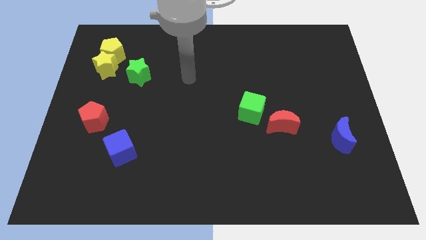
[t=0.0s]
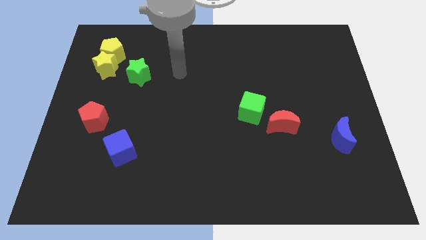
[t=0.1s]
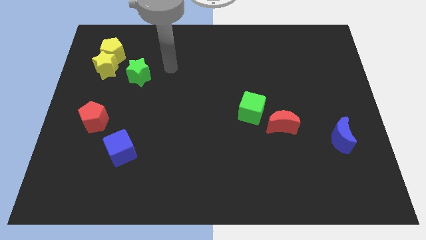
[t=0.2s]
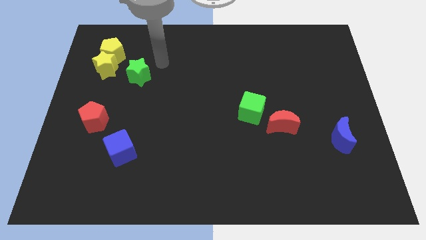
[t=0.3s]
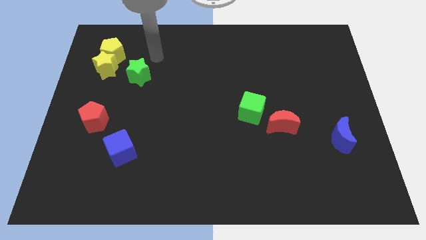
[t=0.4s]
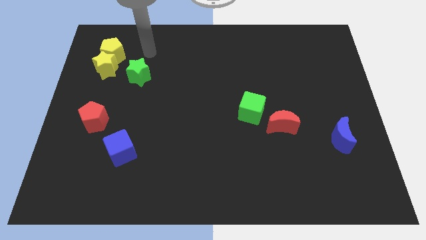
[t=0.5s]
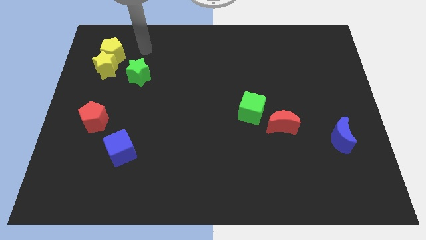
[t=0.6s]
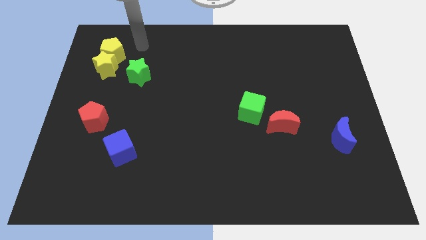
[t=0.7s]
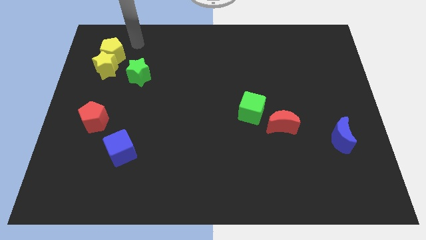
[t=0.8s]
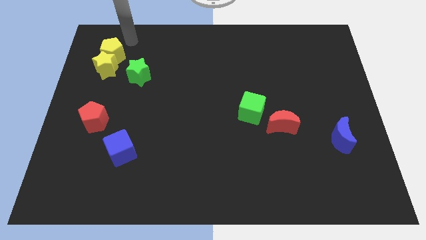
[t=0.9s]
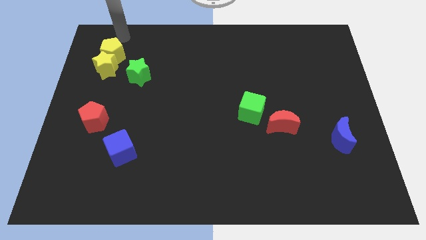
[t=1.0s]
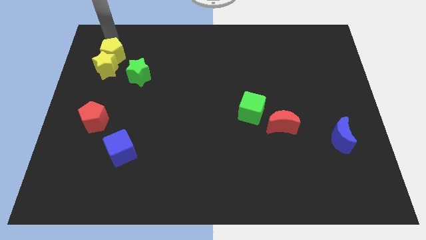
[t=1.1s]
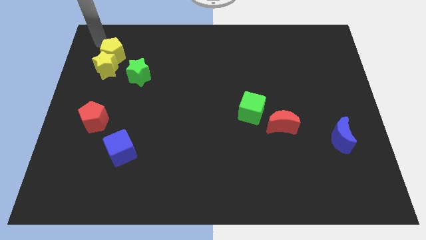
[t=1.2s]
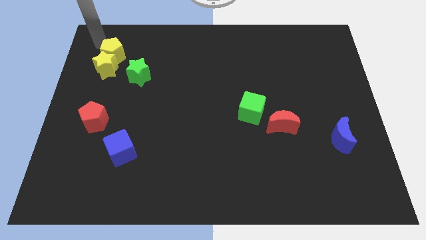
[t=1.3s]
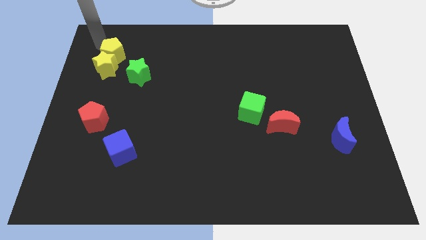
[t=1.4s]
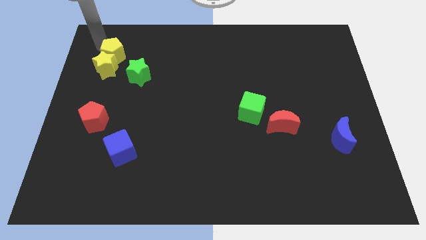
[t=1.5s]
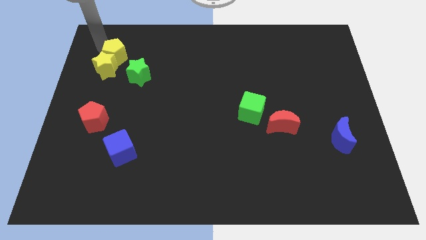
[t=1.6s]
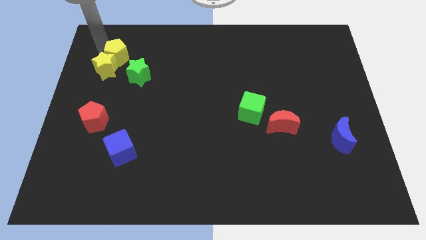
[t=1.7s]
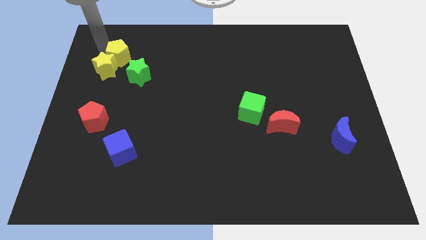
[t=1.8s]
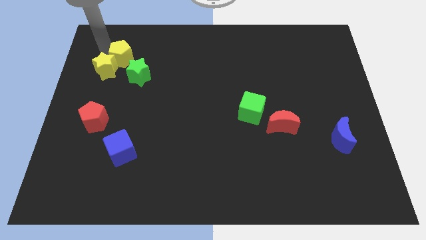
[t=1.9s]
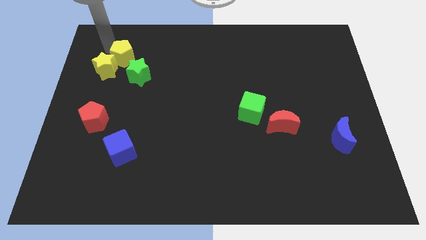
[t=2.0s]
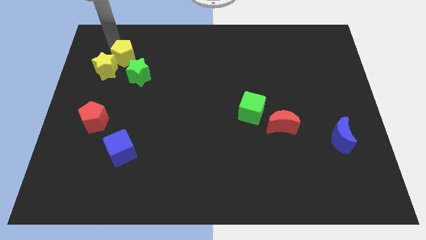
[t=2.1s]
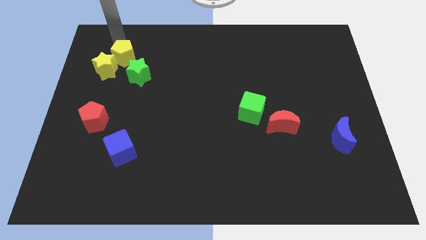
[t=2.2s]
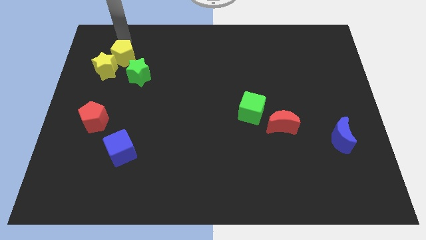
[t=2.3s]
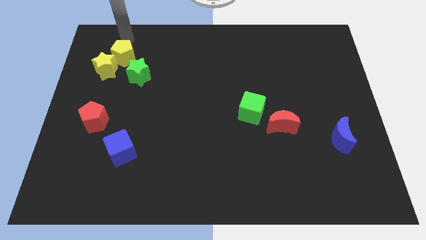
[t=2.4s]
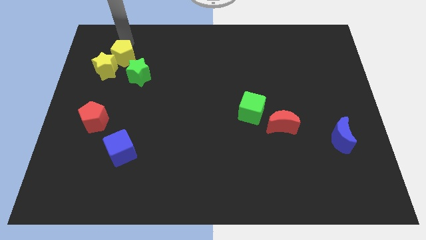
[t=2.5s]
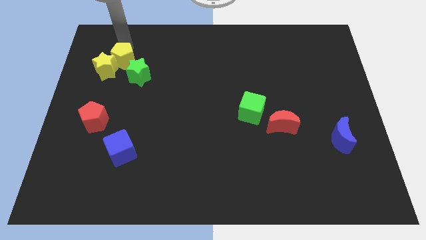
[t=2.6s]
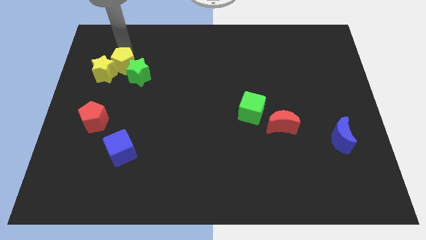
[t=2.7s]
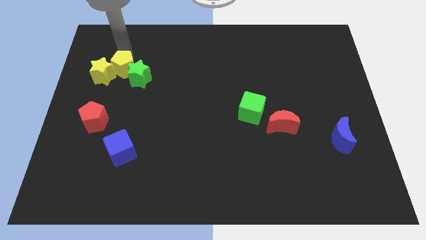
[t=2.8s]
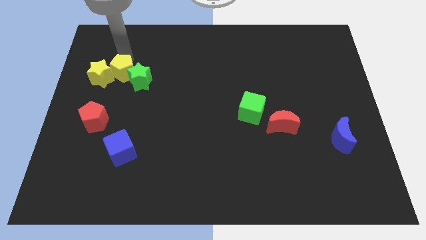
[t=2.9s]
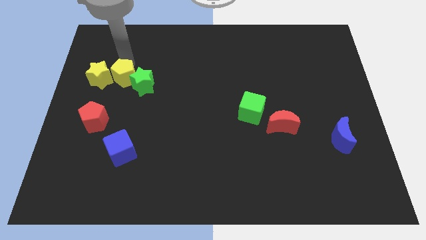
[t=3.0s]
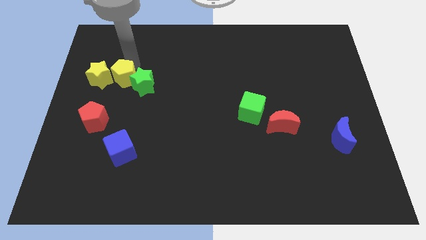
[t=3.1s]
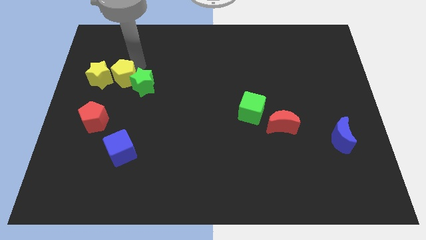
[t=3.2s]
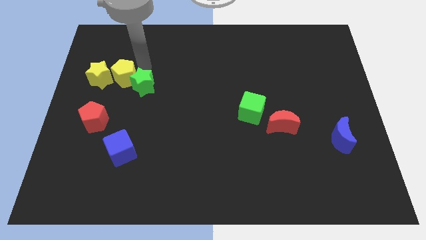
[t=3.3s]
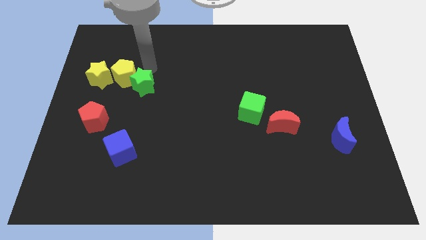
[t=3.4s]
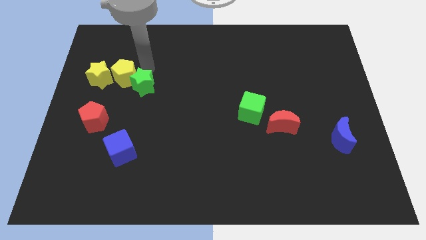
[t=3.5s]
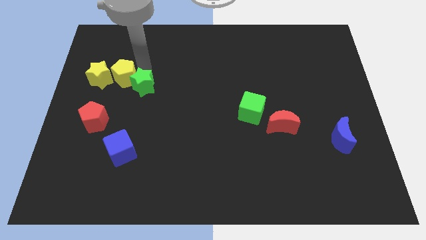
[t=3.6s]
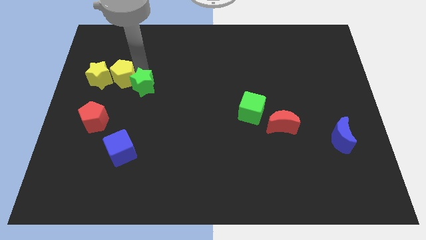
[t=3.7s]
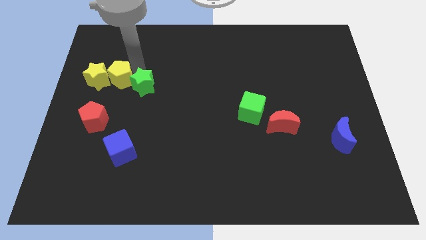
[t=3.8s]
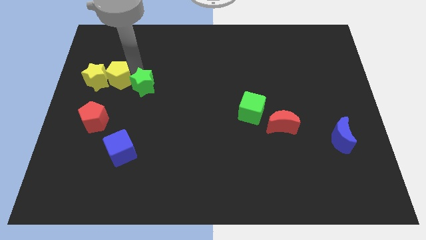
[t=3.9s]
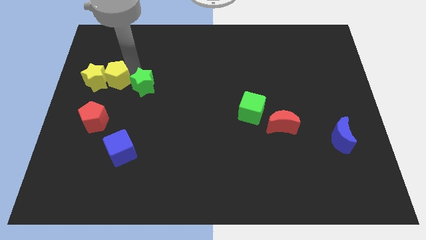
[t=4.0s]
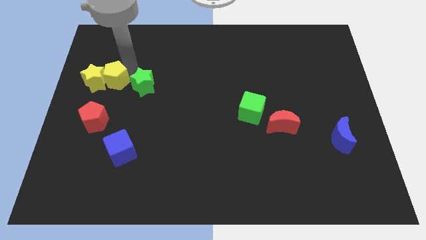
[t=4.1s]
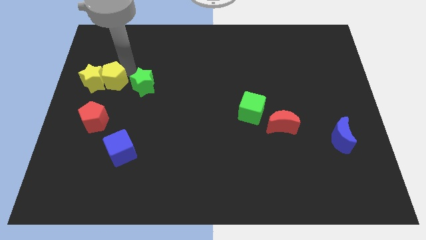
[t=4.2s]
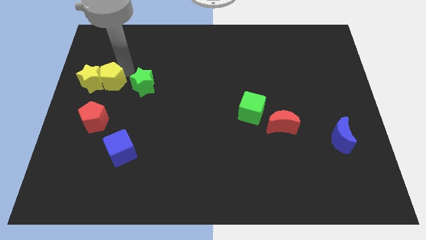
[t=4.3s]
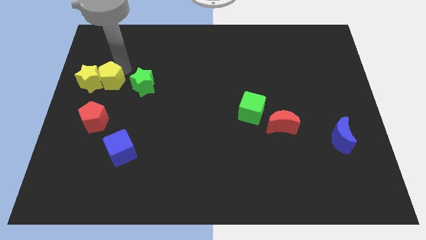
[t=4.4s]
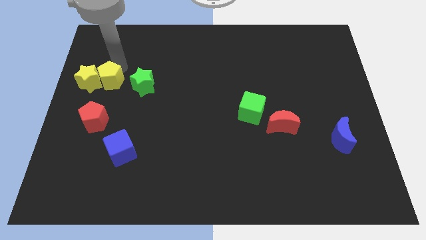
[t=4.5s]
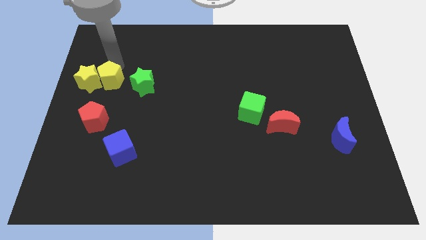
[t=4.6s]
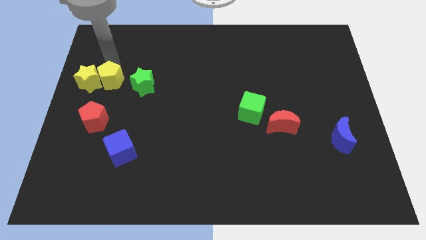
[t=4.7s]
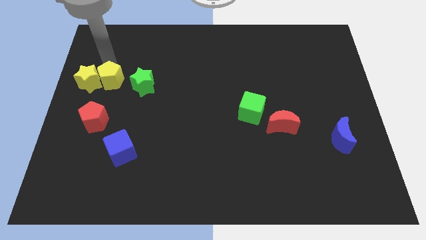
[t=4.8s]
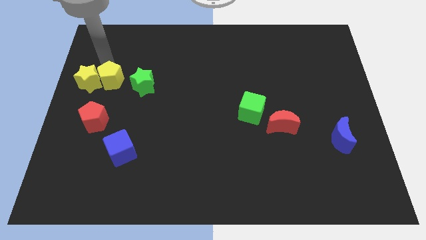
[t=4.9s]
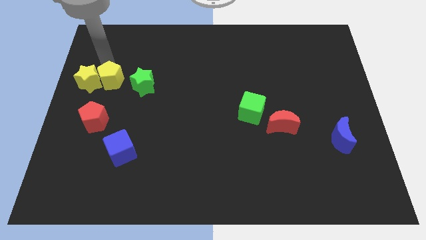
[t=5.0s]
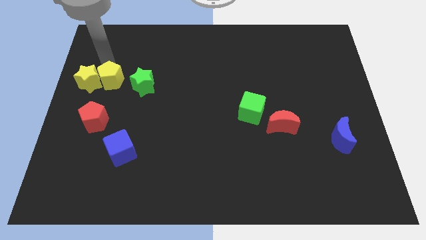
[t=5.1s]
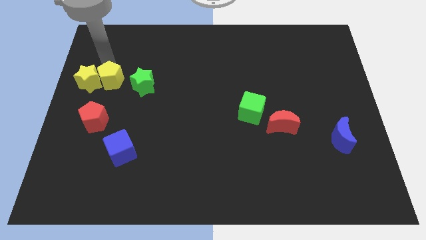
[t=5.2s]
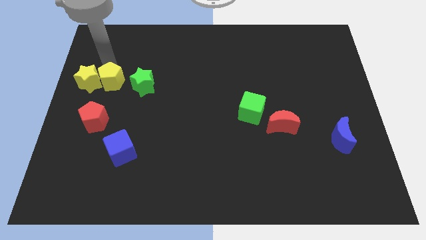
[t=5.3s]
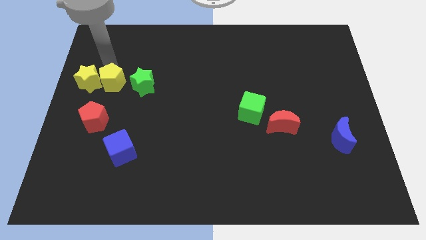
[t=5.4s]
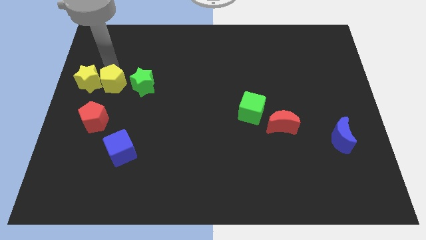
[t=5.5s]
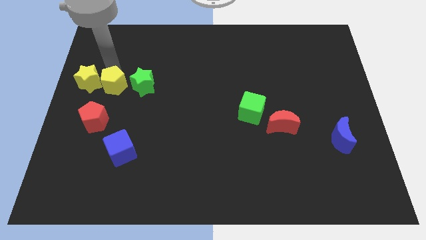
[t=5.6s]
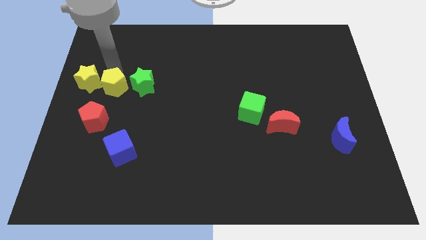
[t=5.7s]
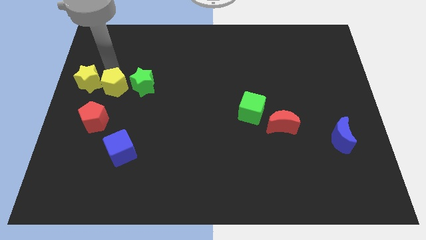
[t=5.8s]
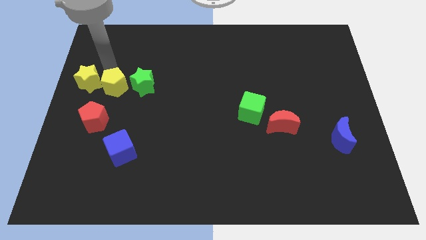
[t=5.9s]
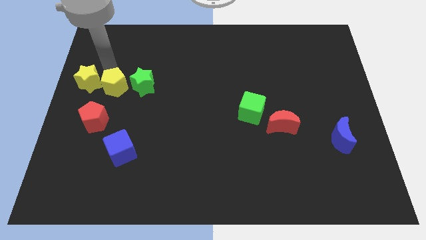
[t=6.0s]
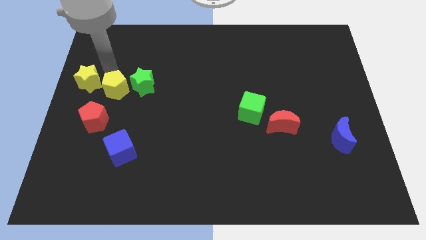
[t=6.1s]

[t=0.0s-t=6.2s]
put the yellow pentagon to the top right side of the red pentagon

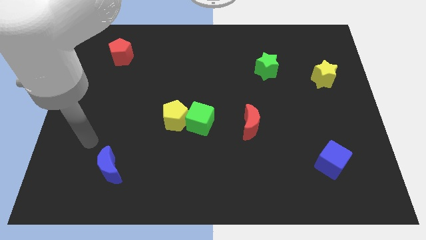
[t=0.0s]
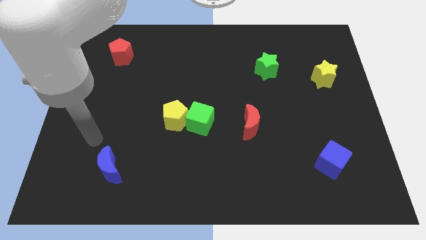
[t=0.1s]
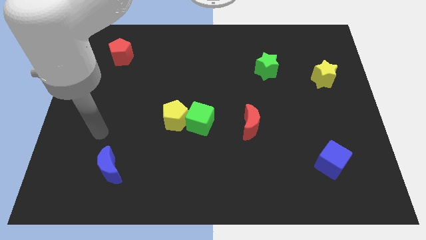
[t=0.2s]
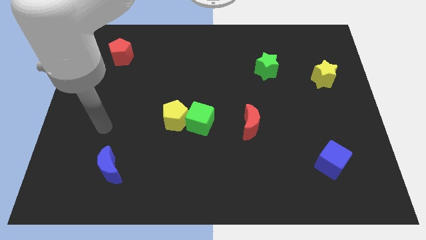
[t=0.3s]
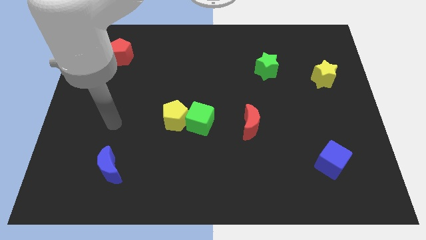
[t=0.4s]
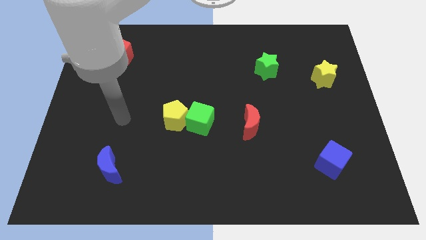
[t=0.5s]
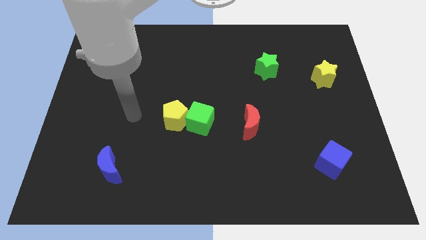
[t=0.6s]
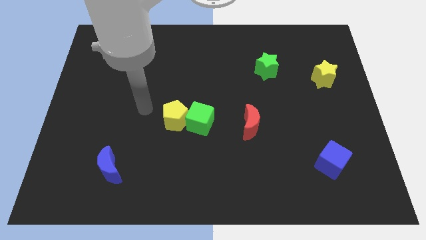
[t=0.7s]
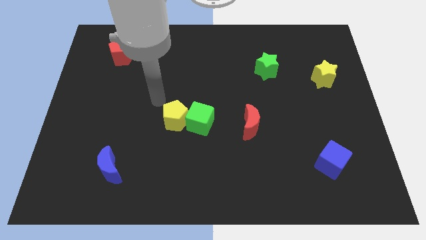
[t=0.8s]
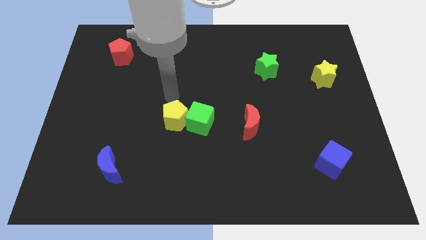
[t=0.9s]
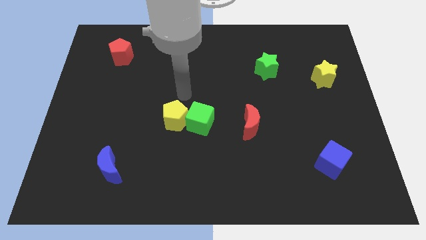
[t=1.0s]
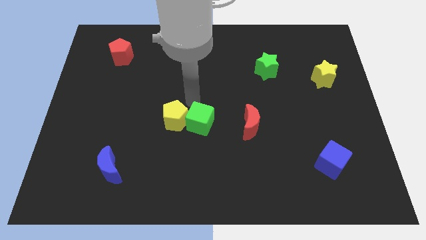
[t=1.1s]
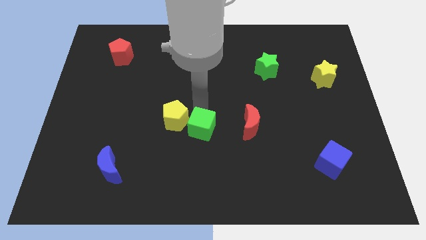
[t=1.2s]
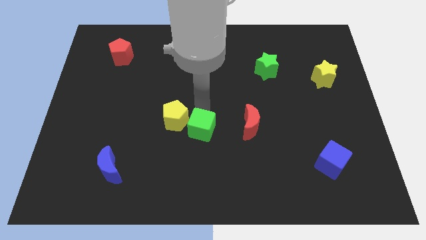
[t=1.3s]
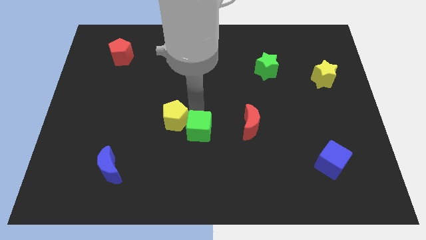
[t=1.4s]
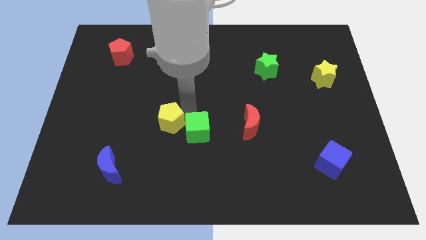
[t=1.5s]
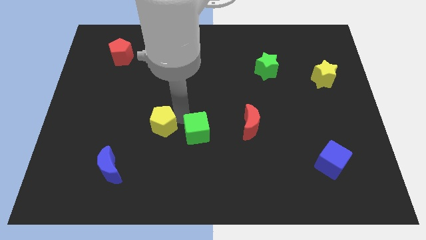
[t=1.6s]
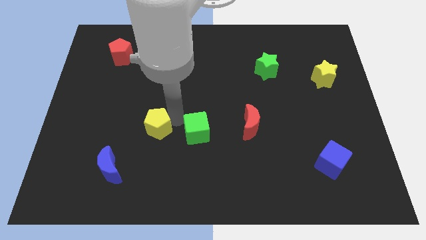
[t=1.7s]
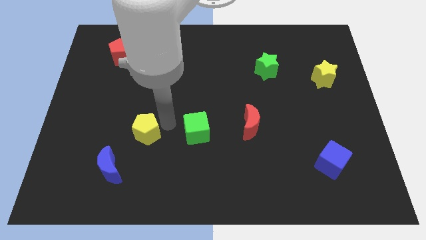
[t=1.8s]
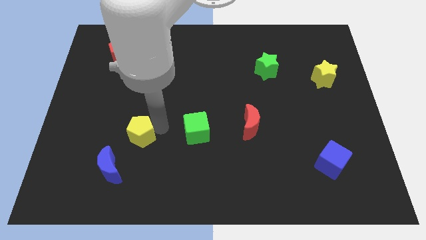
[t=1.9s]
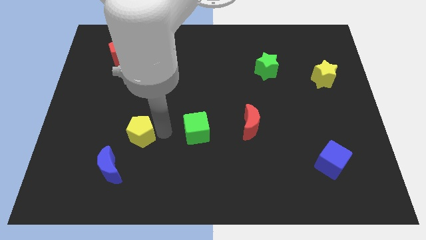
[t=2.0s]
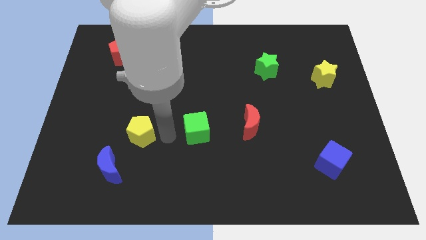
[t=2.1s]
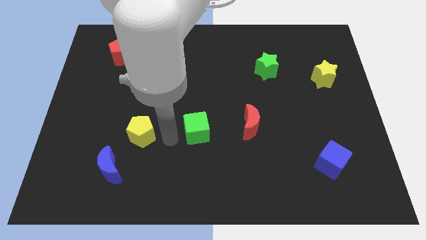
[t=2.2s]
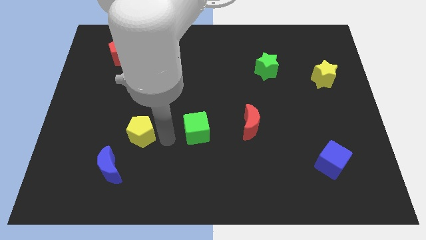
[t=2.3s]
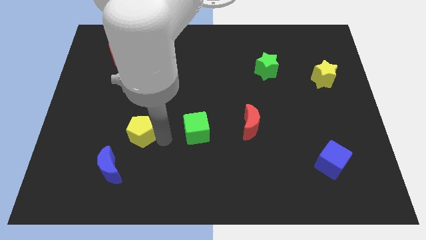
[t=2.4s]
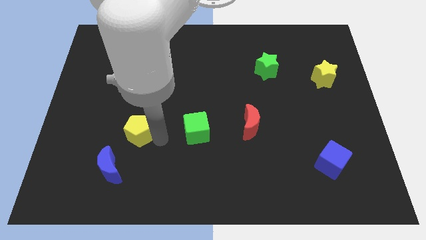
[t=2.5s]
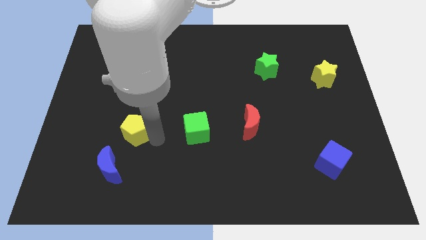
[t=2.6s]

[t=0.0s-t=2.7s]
move the yellow pentagon to the top of the blue moon
